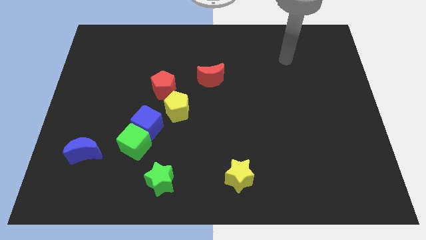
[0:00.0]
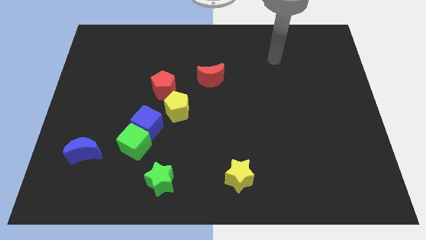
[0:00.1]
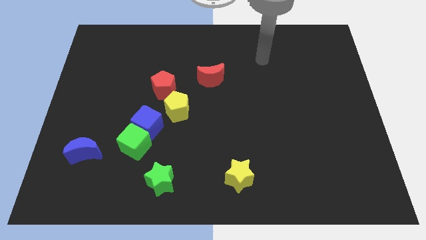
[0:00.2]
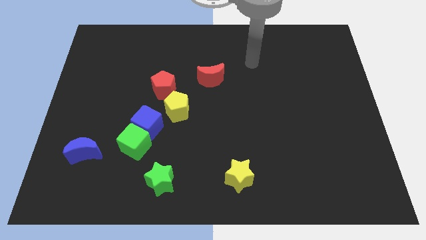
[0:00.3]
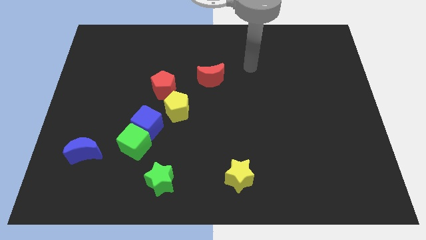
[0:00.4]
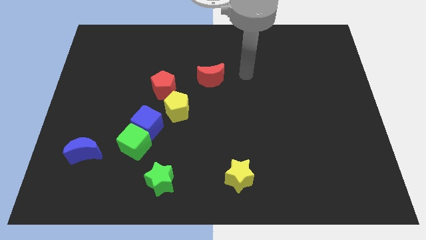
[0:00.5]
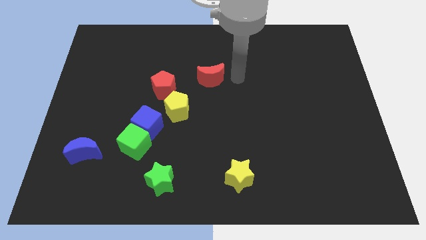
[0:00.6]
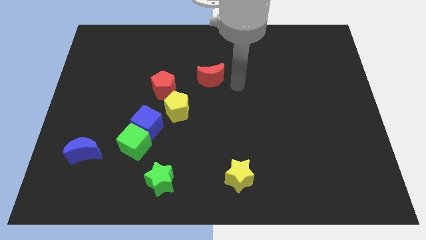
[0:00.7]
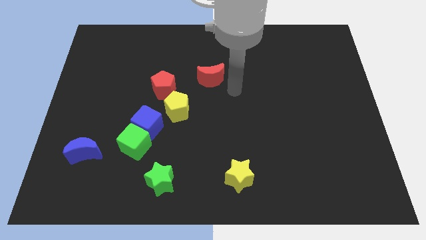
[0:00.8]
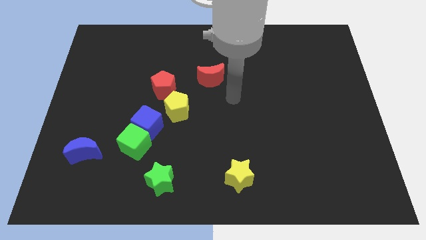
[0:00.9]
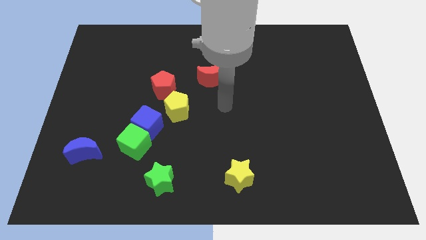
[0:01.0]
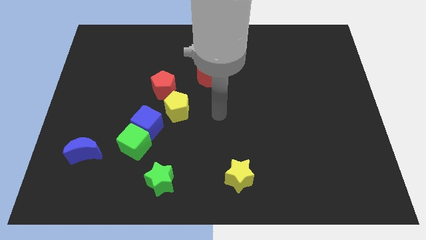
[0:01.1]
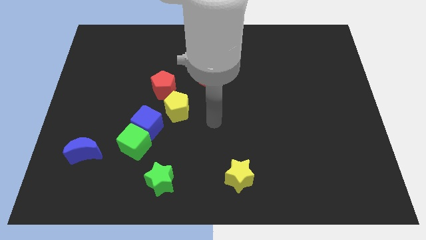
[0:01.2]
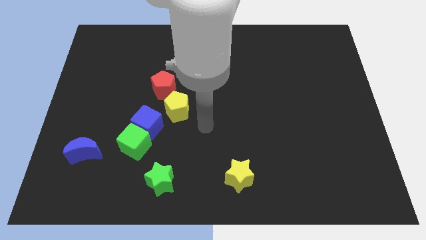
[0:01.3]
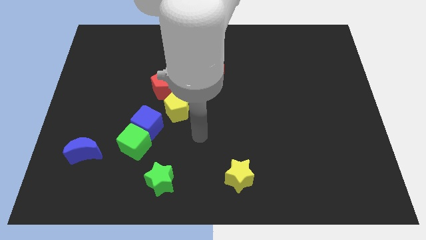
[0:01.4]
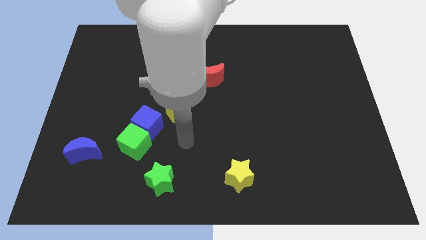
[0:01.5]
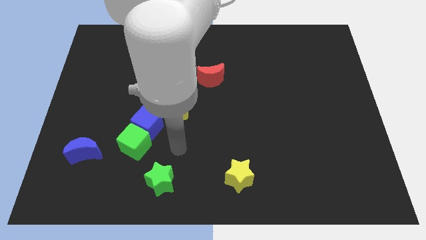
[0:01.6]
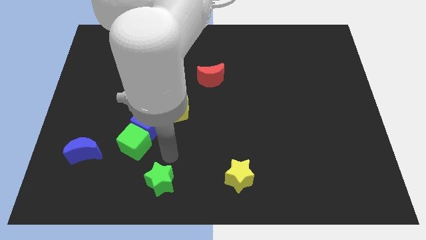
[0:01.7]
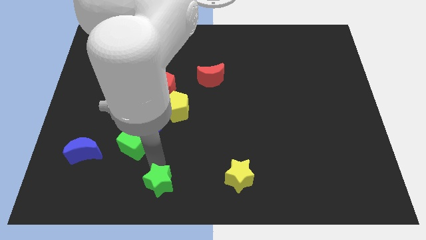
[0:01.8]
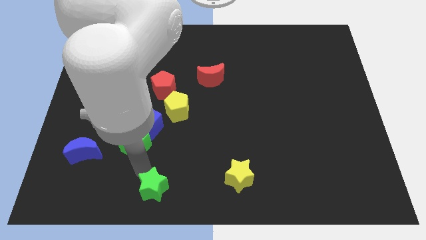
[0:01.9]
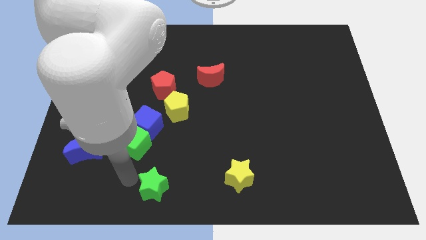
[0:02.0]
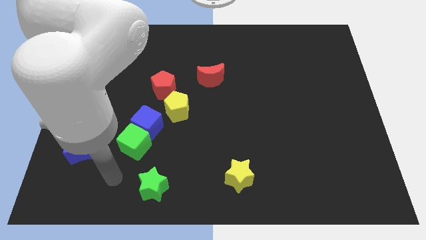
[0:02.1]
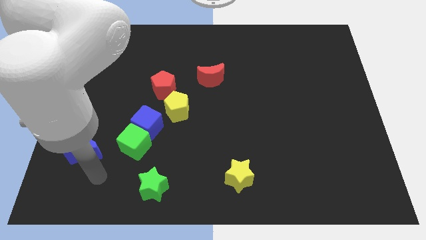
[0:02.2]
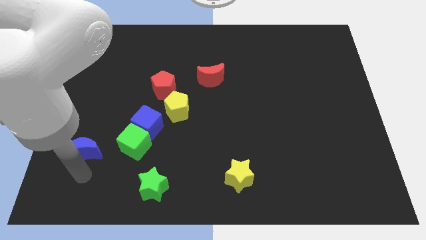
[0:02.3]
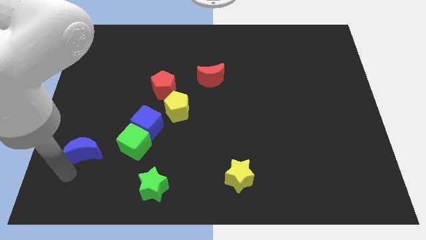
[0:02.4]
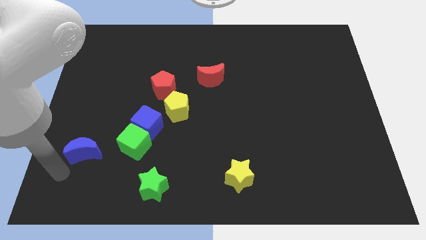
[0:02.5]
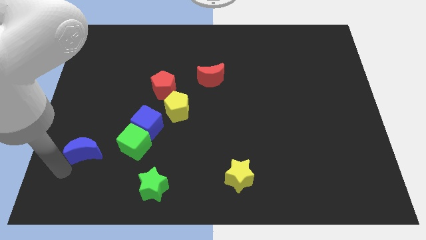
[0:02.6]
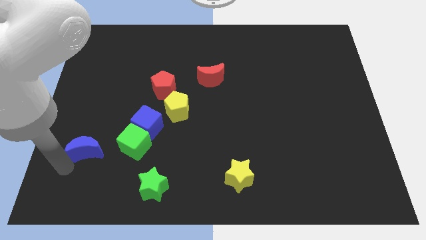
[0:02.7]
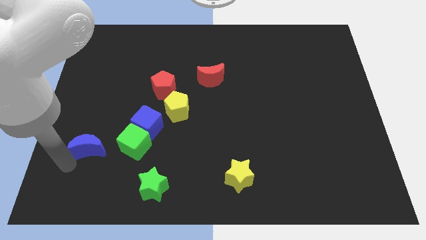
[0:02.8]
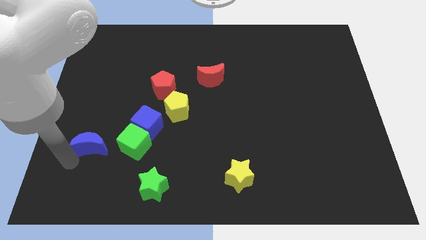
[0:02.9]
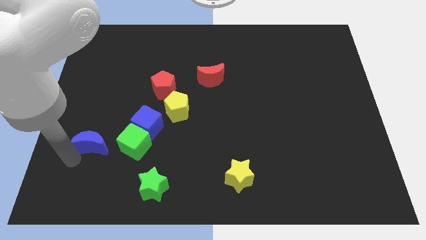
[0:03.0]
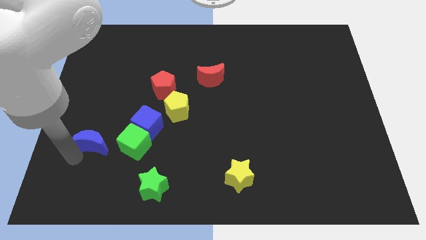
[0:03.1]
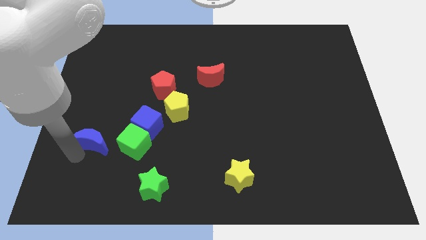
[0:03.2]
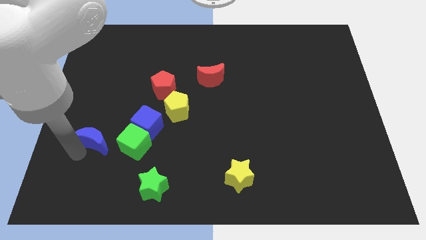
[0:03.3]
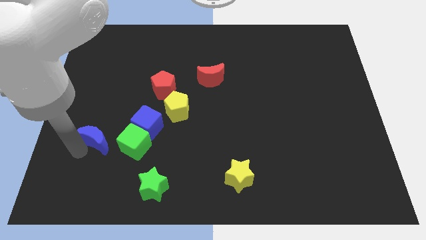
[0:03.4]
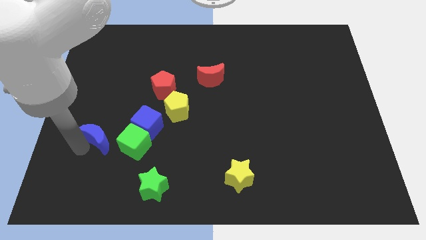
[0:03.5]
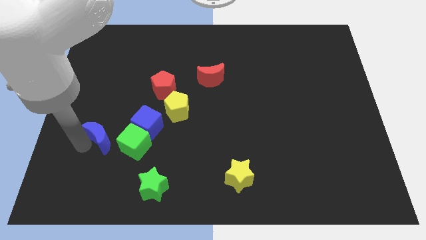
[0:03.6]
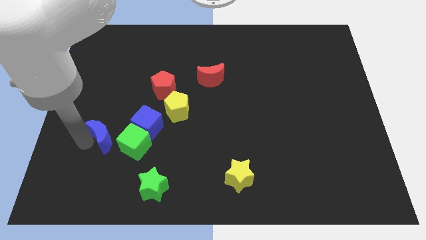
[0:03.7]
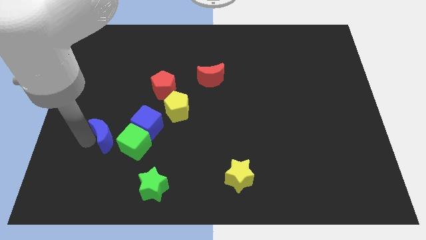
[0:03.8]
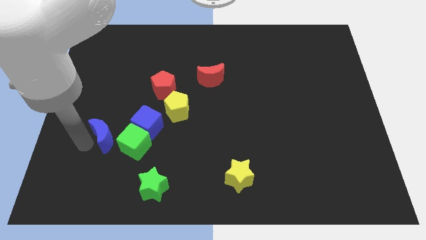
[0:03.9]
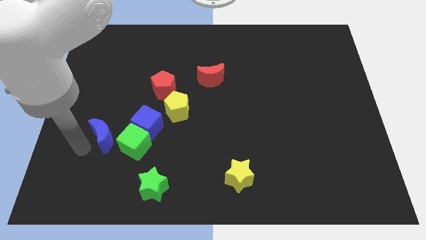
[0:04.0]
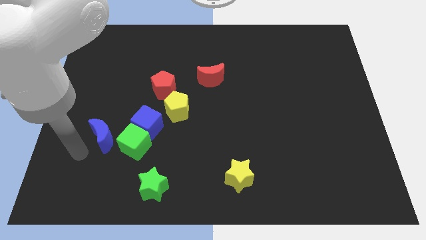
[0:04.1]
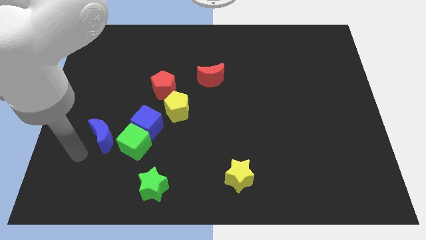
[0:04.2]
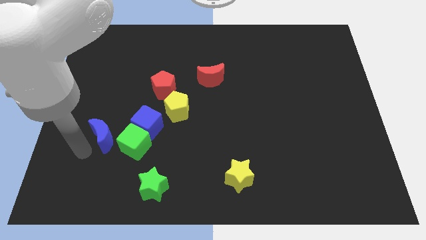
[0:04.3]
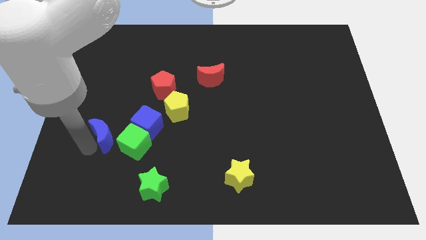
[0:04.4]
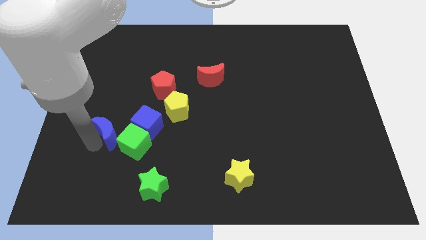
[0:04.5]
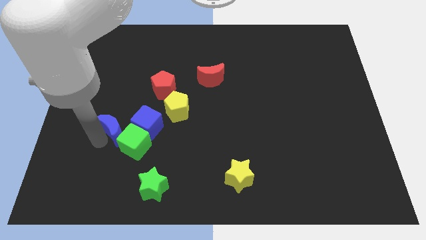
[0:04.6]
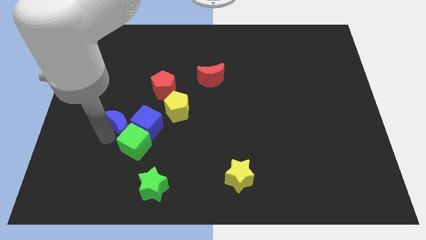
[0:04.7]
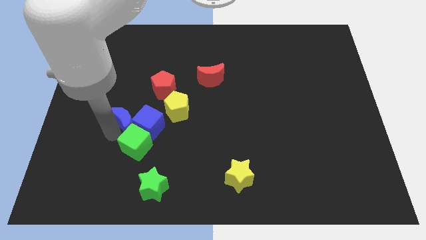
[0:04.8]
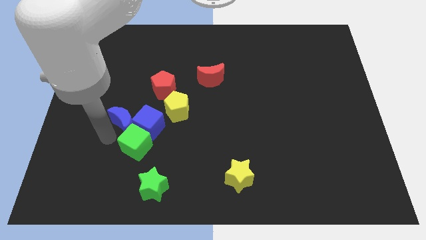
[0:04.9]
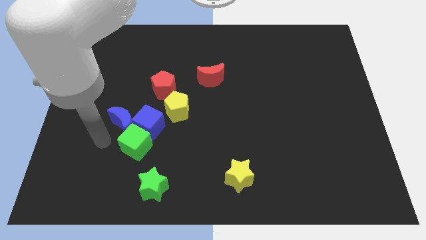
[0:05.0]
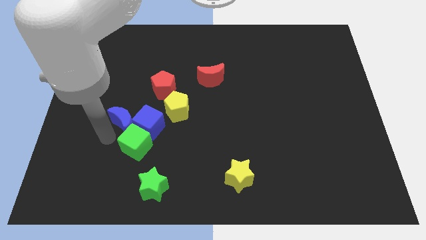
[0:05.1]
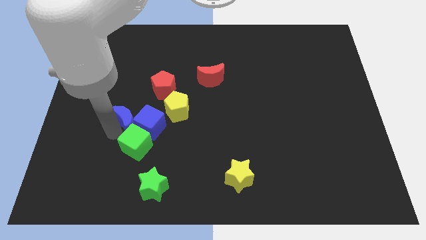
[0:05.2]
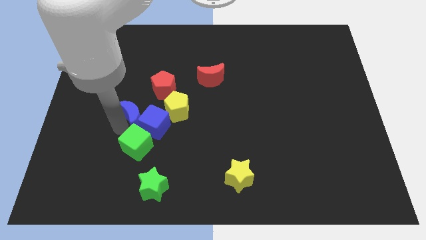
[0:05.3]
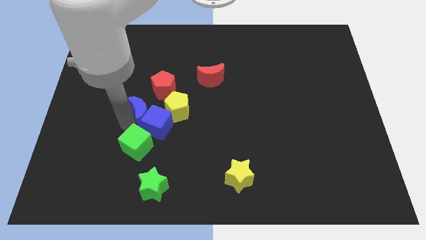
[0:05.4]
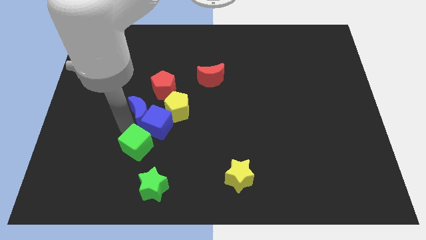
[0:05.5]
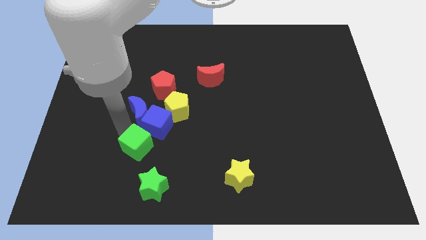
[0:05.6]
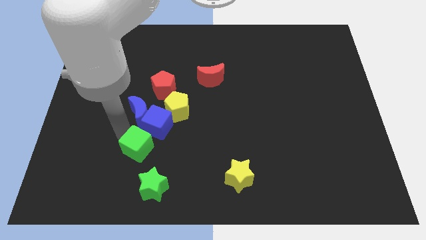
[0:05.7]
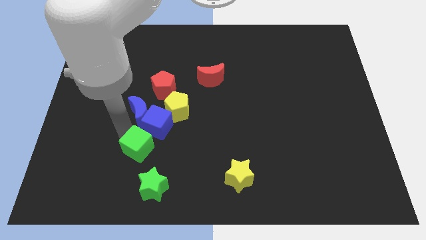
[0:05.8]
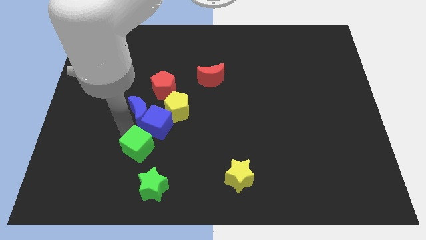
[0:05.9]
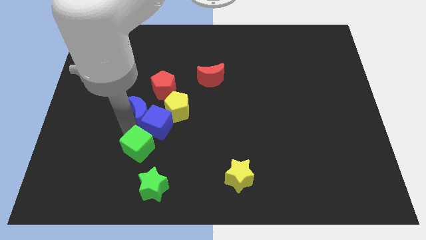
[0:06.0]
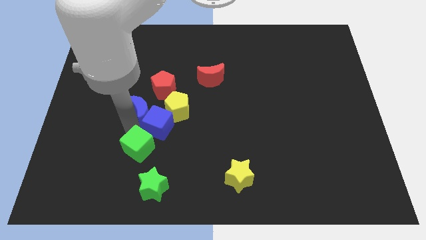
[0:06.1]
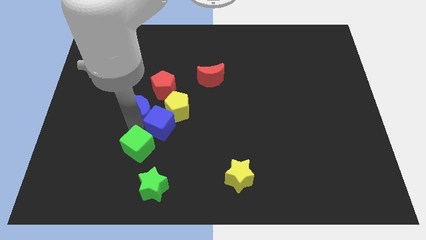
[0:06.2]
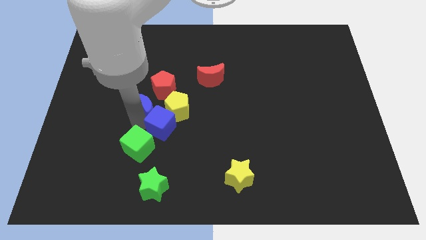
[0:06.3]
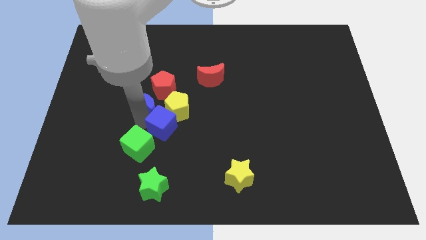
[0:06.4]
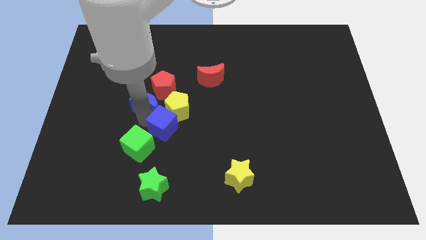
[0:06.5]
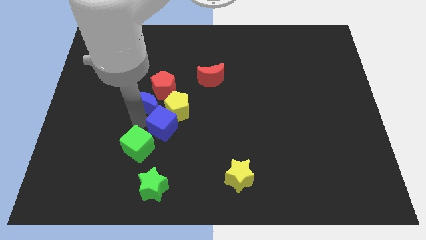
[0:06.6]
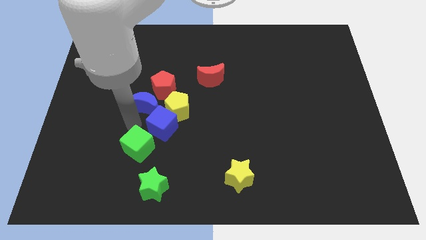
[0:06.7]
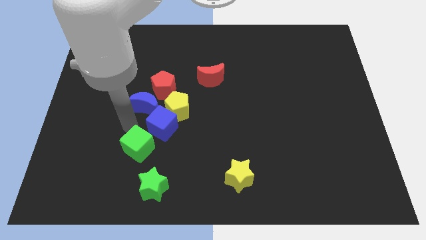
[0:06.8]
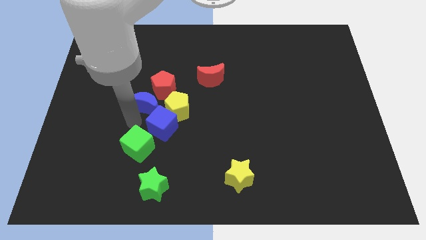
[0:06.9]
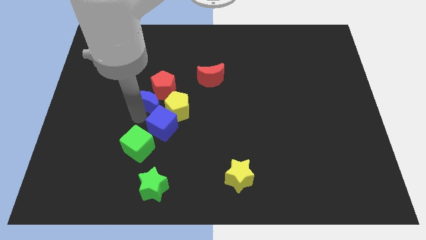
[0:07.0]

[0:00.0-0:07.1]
put the blue moon towards the red pentagon
